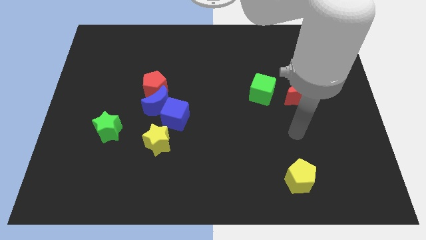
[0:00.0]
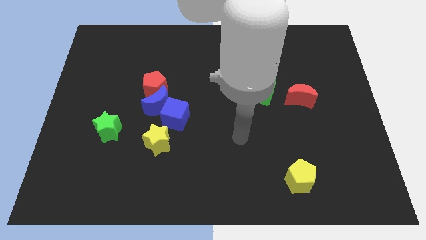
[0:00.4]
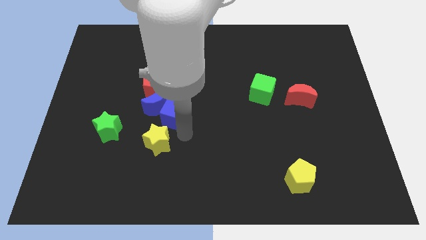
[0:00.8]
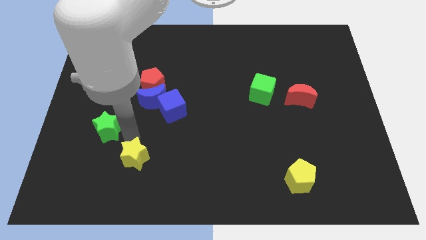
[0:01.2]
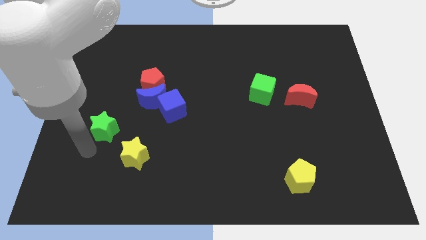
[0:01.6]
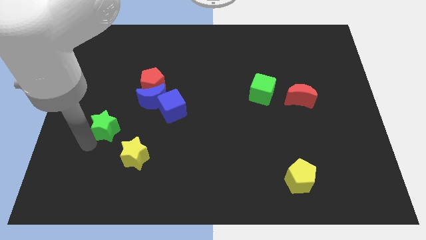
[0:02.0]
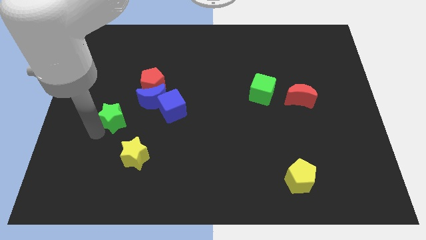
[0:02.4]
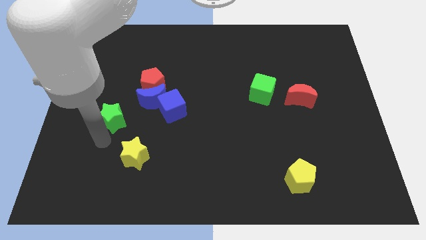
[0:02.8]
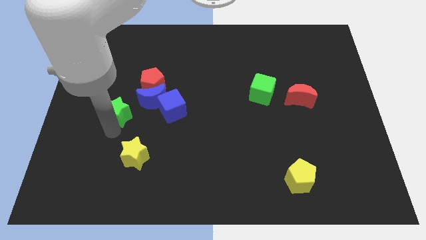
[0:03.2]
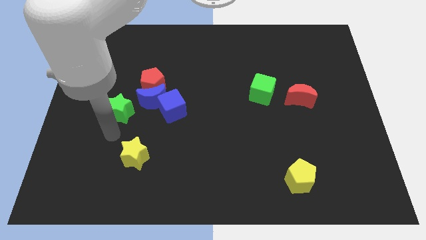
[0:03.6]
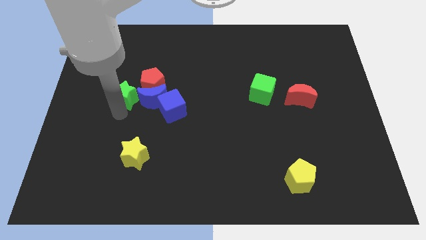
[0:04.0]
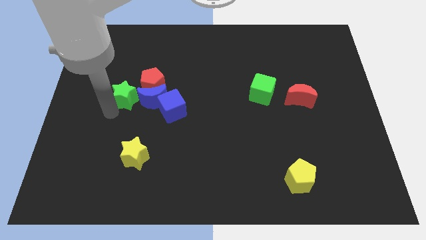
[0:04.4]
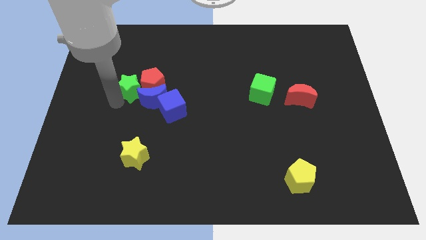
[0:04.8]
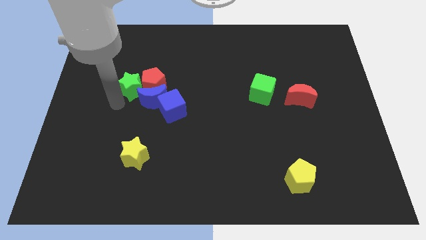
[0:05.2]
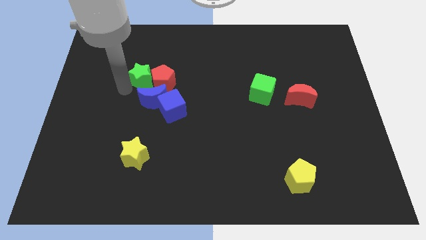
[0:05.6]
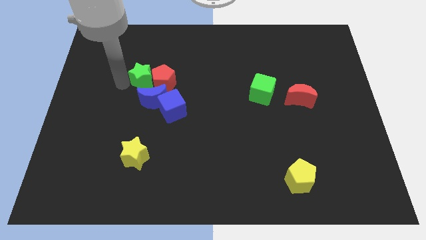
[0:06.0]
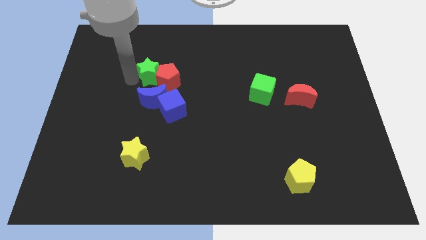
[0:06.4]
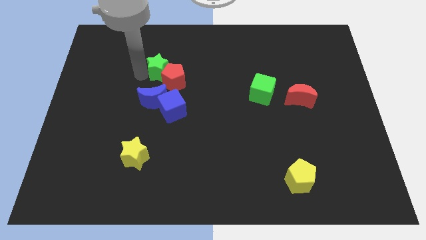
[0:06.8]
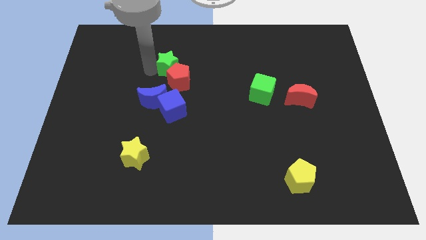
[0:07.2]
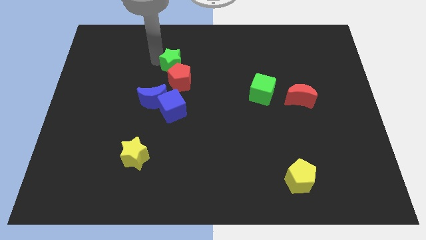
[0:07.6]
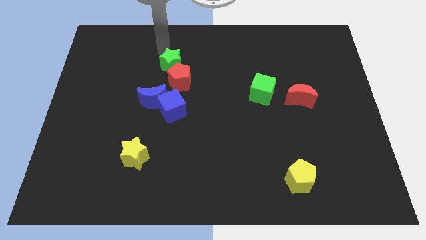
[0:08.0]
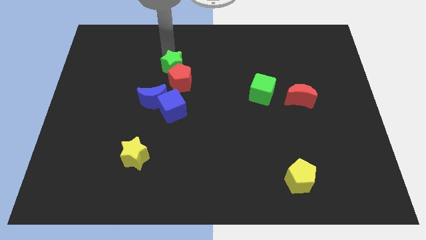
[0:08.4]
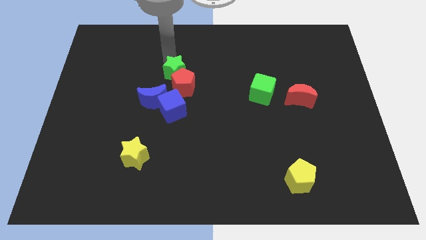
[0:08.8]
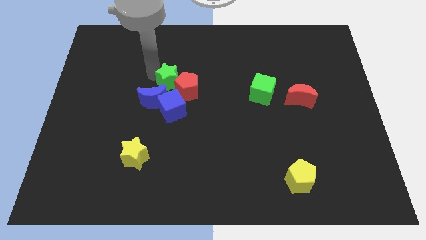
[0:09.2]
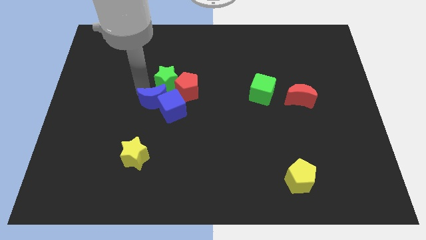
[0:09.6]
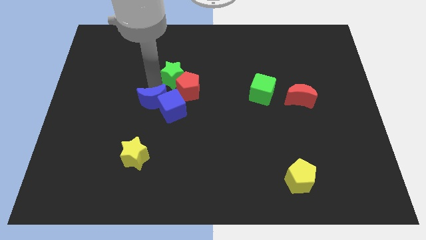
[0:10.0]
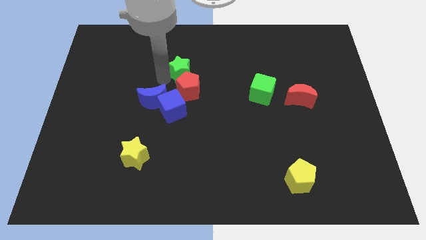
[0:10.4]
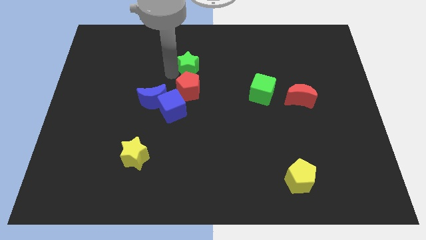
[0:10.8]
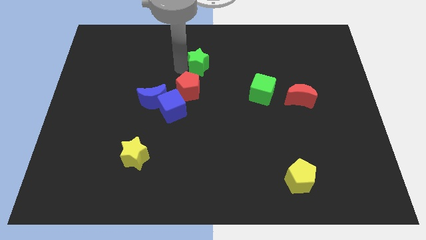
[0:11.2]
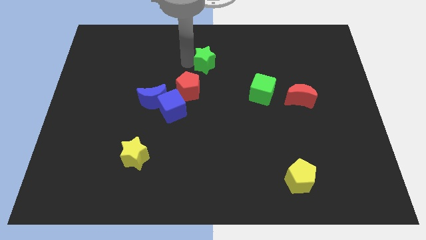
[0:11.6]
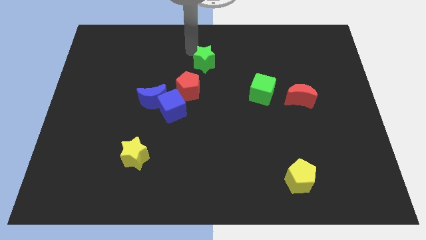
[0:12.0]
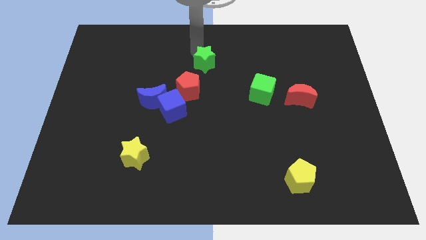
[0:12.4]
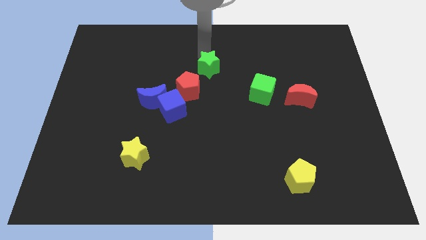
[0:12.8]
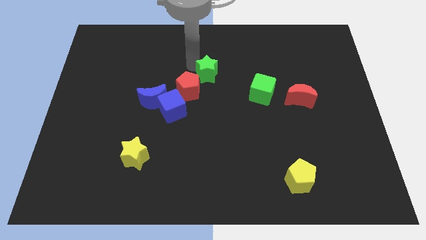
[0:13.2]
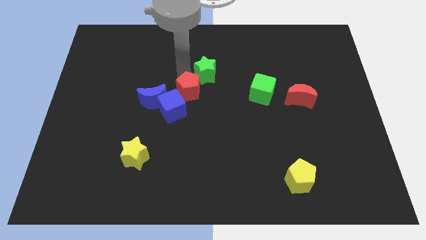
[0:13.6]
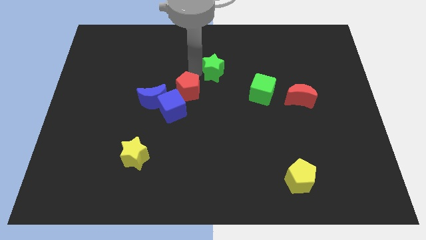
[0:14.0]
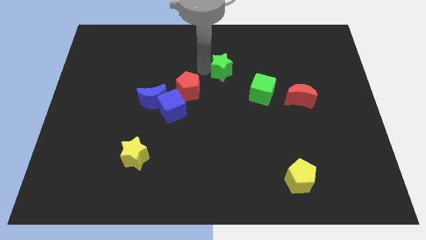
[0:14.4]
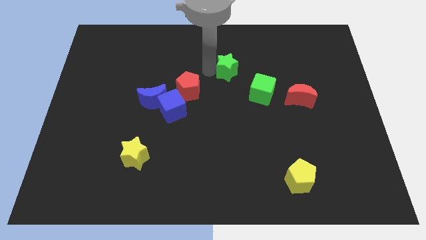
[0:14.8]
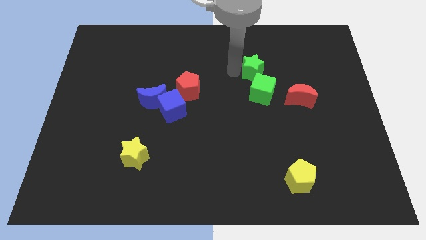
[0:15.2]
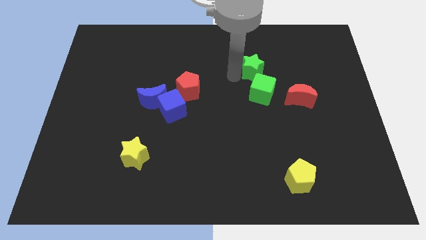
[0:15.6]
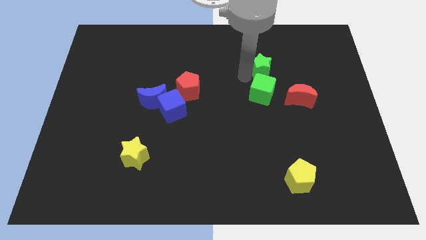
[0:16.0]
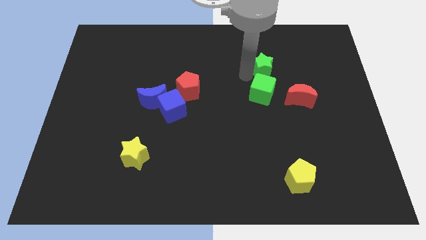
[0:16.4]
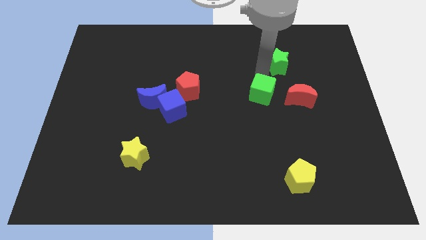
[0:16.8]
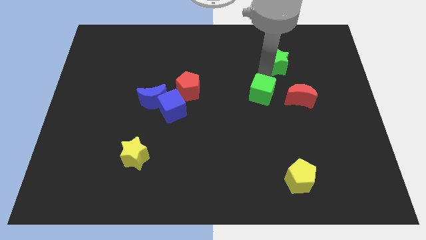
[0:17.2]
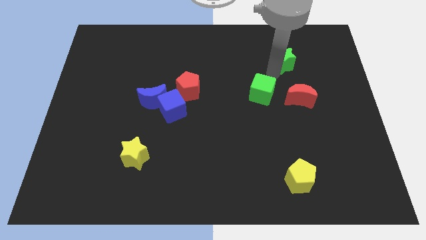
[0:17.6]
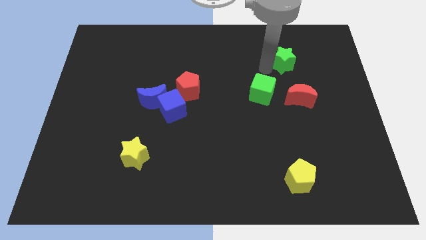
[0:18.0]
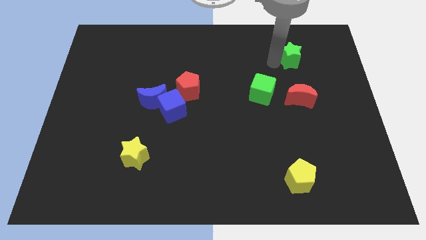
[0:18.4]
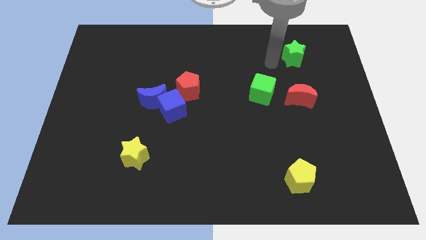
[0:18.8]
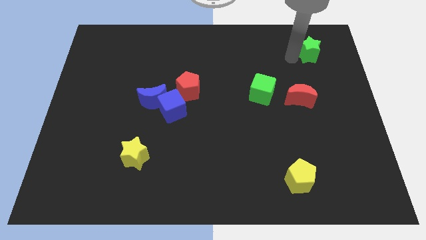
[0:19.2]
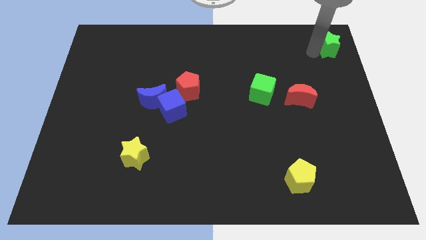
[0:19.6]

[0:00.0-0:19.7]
move the green star to the top right of the board

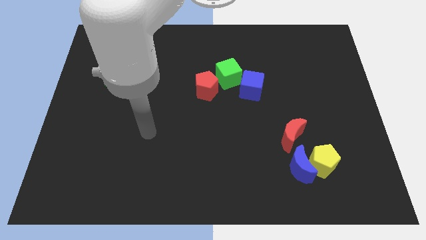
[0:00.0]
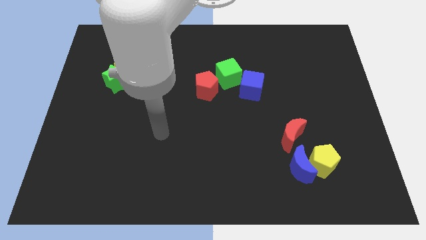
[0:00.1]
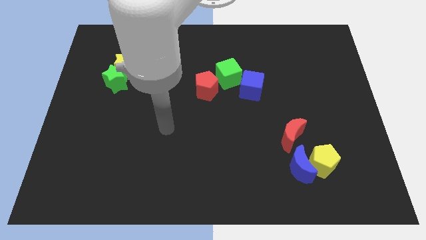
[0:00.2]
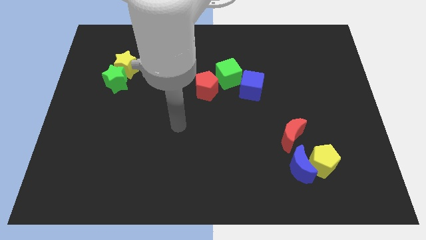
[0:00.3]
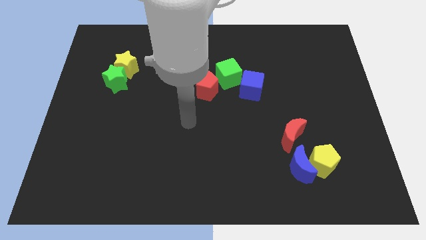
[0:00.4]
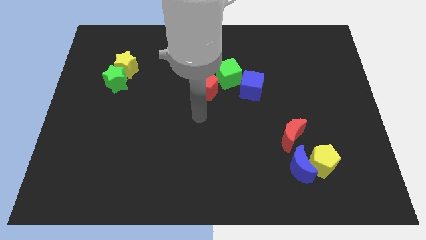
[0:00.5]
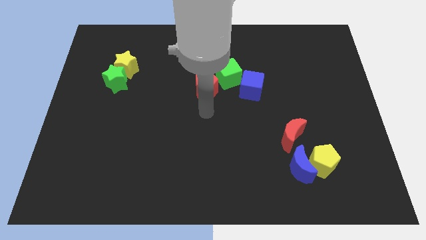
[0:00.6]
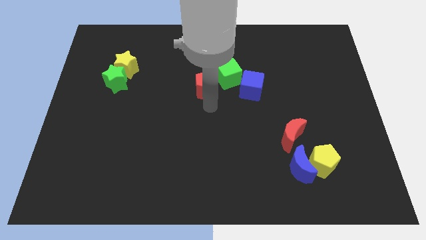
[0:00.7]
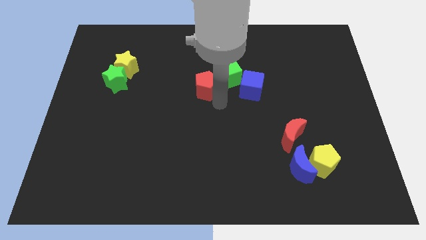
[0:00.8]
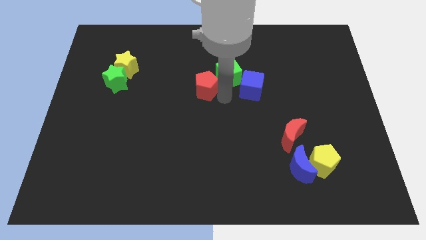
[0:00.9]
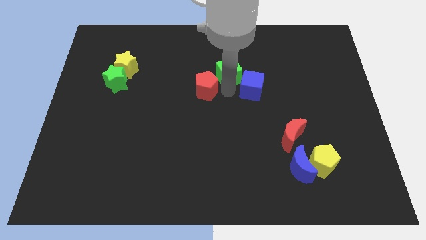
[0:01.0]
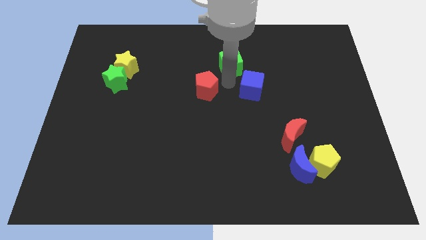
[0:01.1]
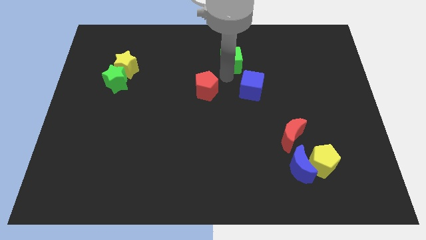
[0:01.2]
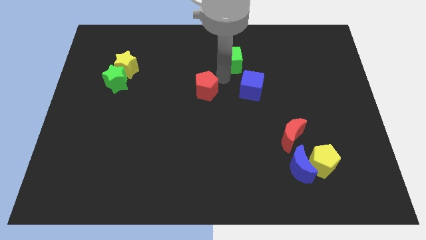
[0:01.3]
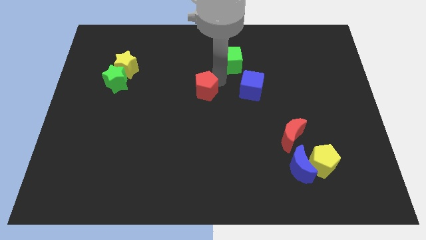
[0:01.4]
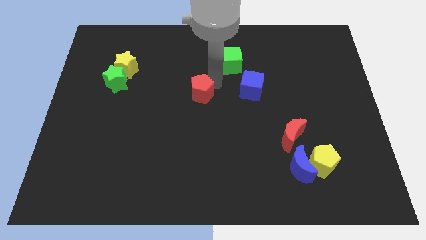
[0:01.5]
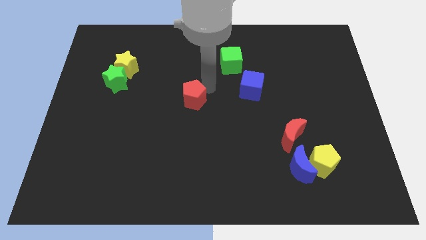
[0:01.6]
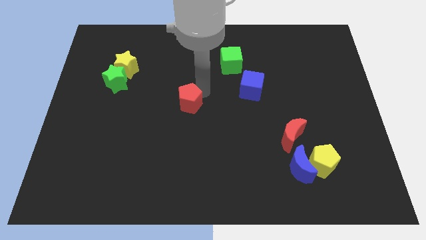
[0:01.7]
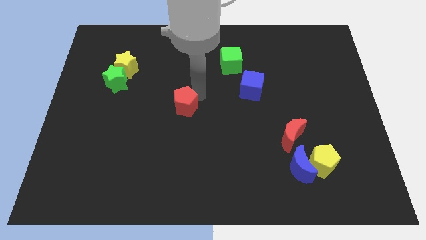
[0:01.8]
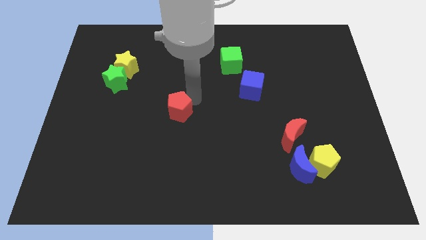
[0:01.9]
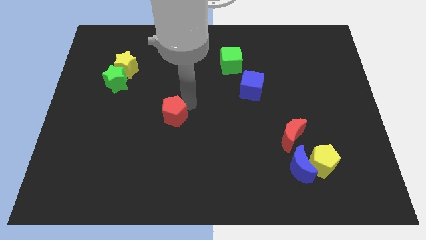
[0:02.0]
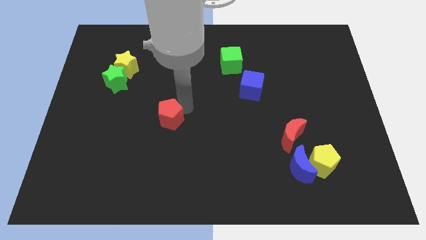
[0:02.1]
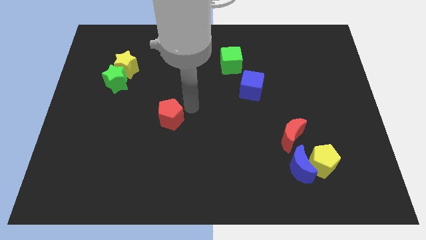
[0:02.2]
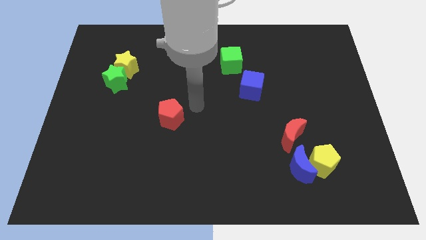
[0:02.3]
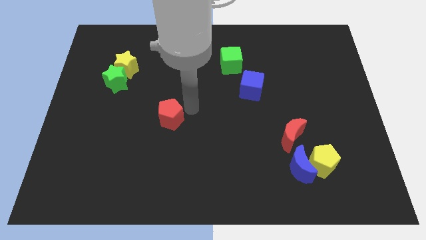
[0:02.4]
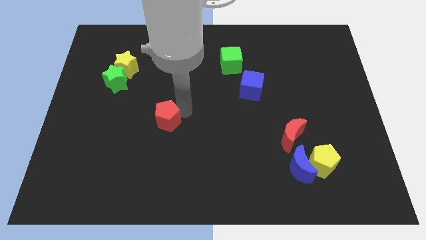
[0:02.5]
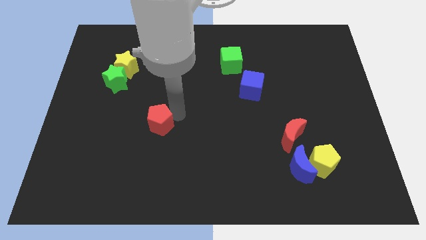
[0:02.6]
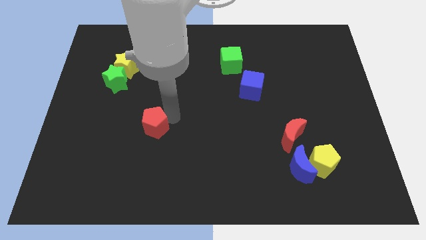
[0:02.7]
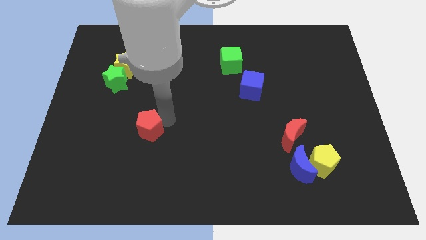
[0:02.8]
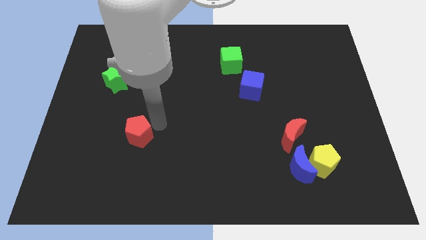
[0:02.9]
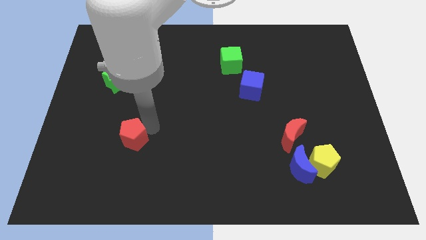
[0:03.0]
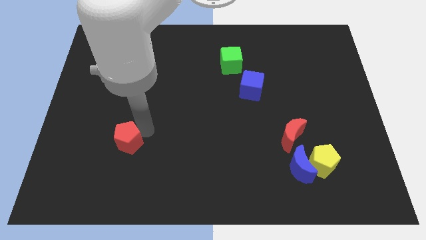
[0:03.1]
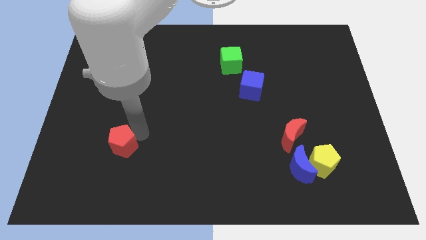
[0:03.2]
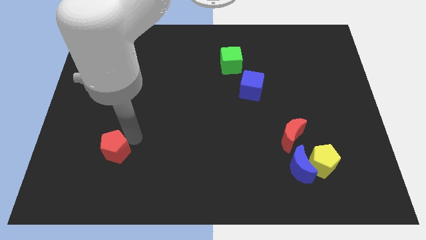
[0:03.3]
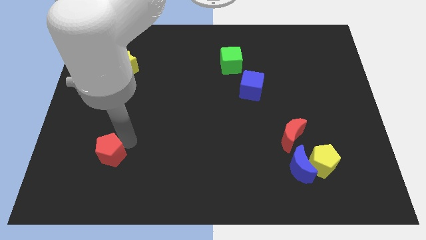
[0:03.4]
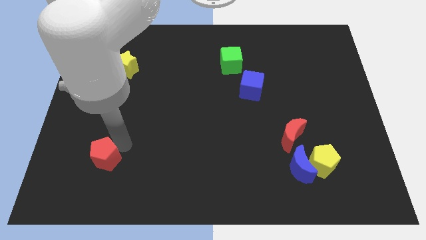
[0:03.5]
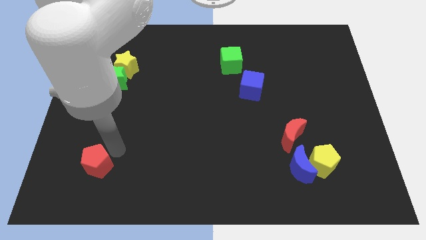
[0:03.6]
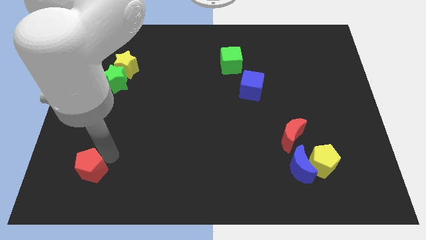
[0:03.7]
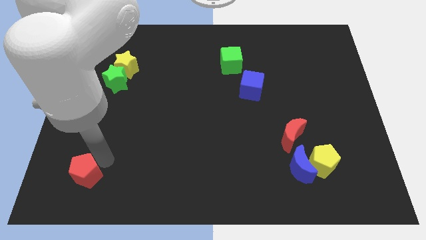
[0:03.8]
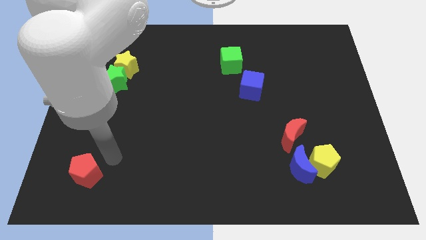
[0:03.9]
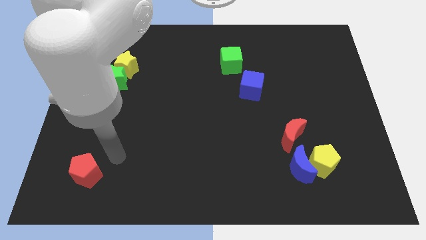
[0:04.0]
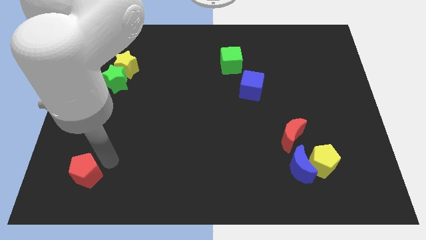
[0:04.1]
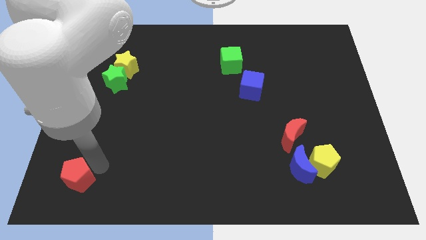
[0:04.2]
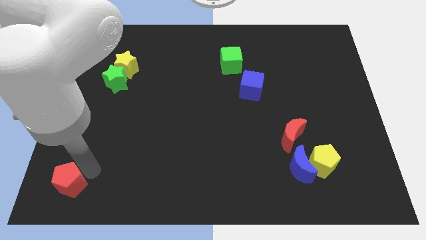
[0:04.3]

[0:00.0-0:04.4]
slide the red pentagon to the bottom left
